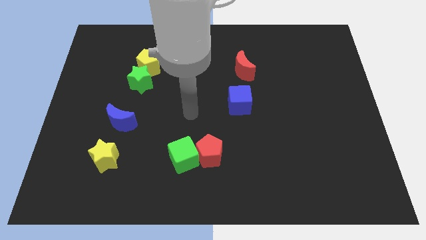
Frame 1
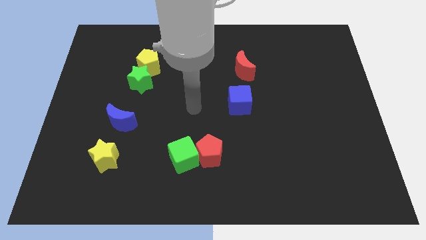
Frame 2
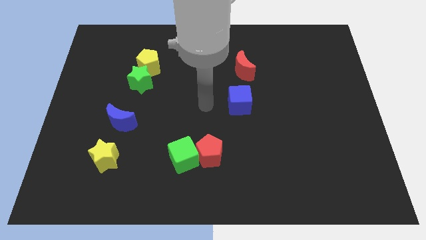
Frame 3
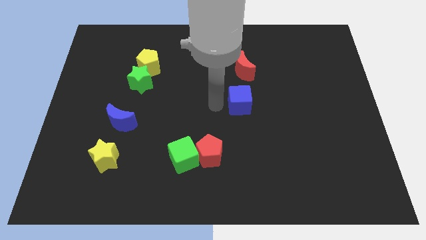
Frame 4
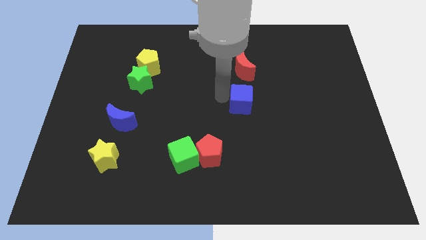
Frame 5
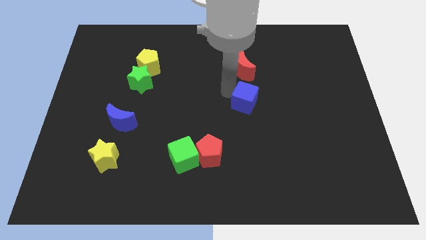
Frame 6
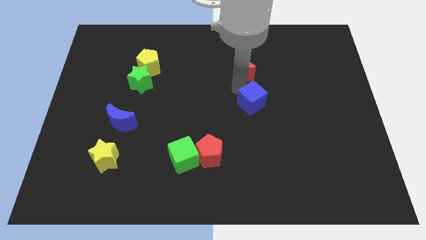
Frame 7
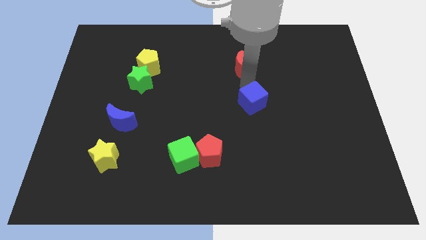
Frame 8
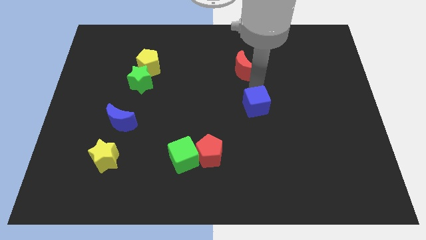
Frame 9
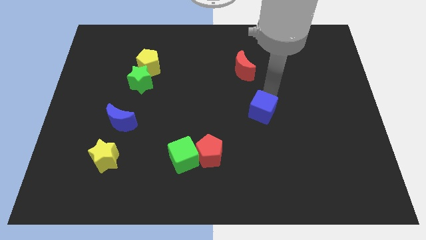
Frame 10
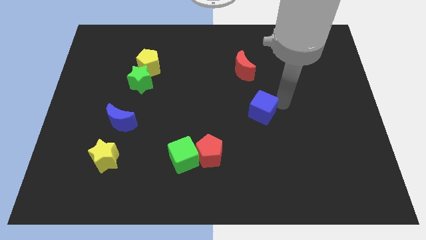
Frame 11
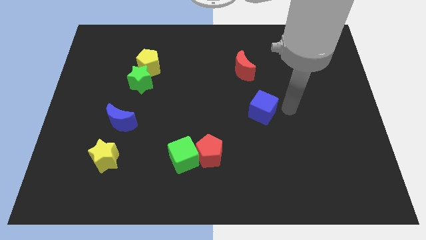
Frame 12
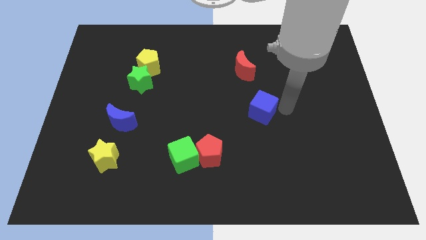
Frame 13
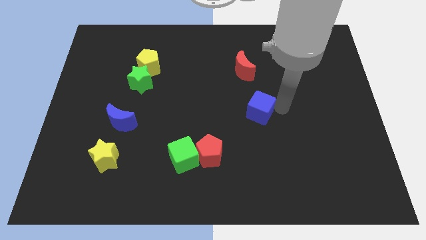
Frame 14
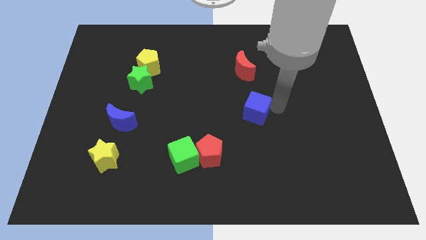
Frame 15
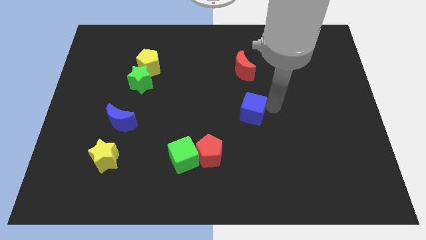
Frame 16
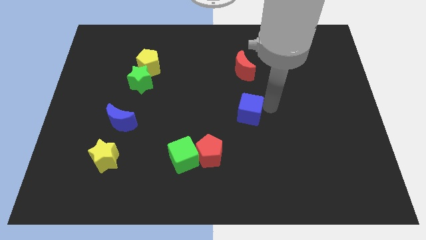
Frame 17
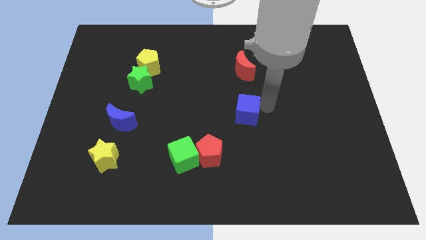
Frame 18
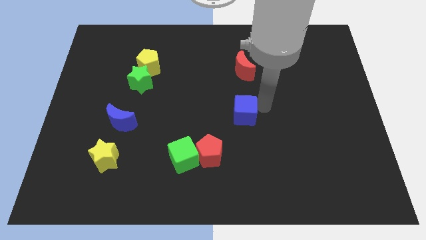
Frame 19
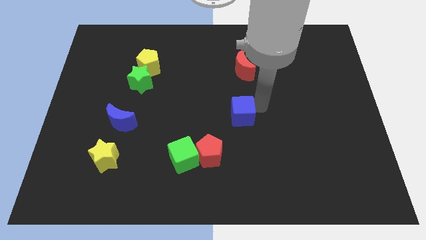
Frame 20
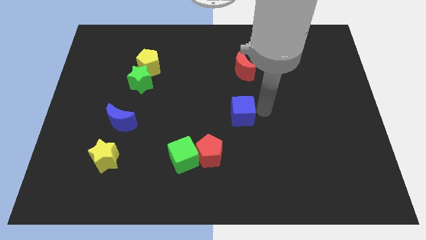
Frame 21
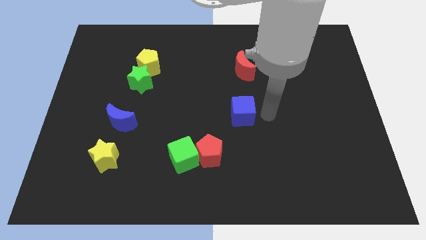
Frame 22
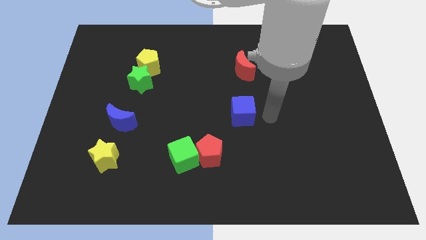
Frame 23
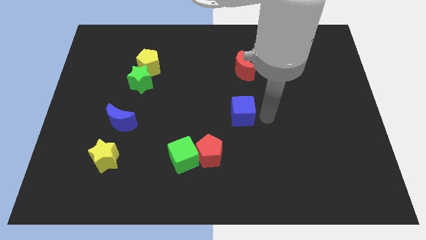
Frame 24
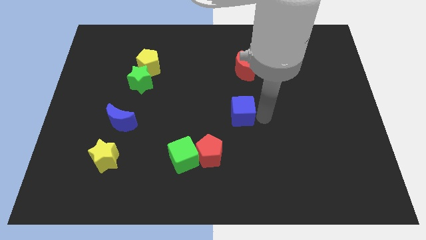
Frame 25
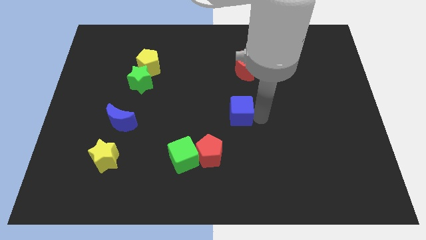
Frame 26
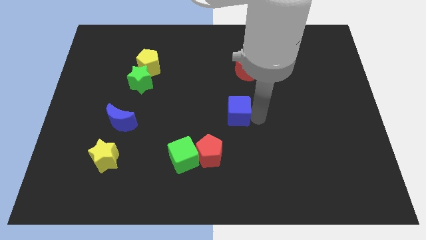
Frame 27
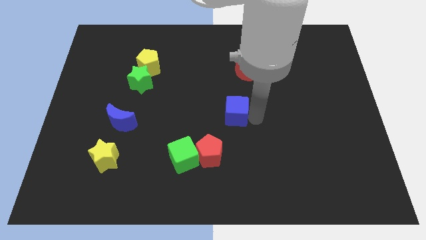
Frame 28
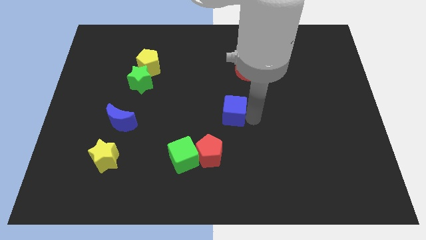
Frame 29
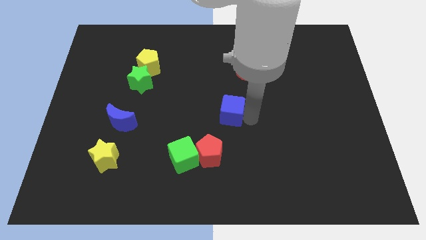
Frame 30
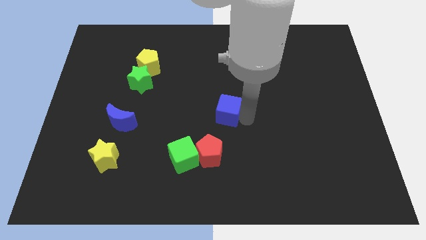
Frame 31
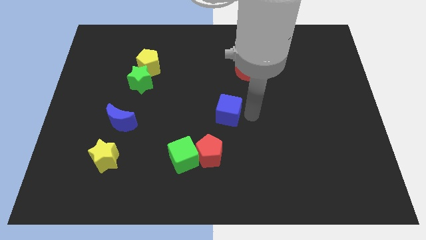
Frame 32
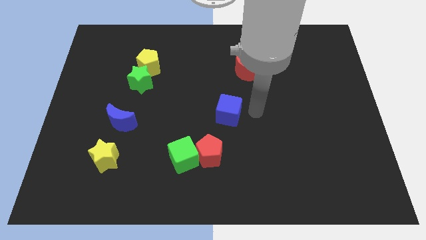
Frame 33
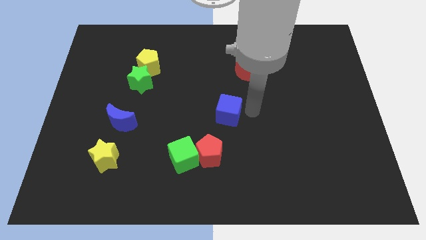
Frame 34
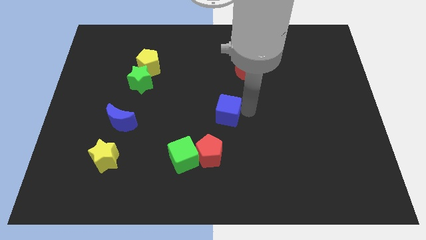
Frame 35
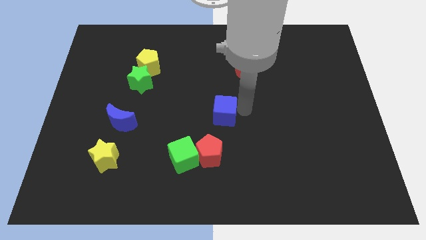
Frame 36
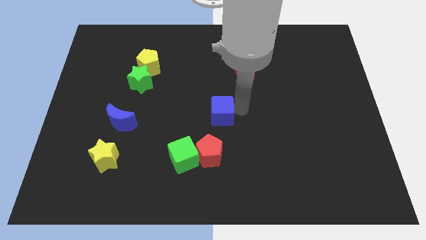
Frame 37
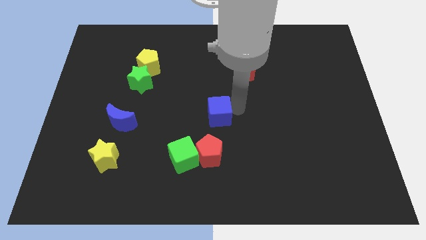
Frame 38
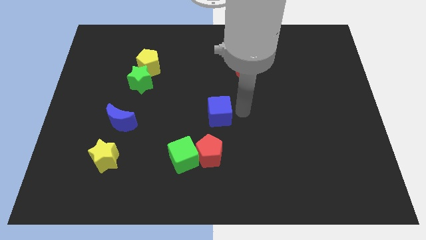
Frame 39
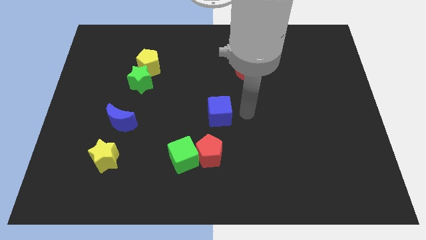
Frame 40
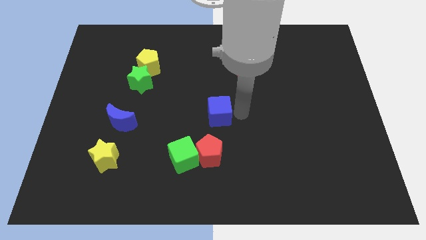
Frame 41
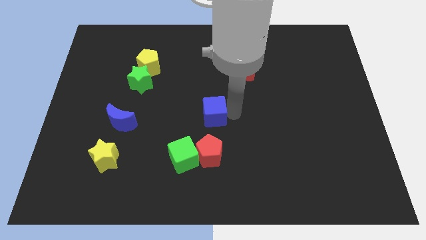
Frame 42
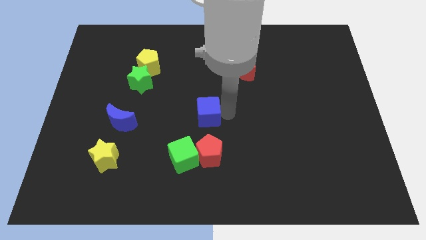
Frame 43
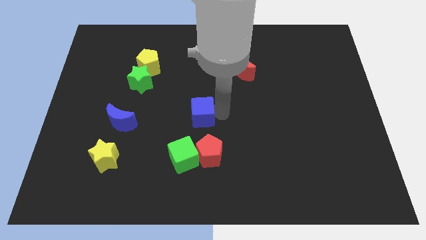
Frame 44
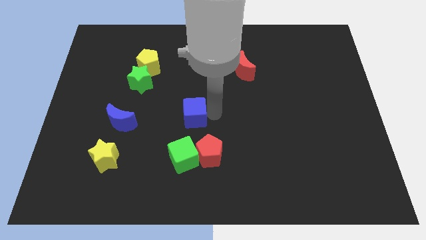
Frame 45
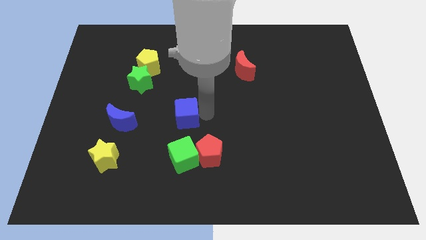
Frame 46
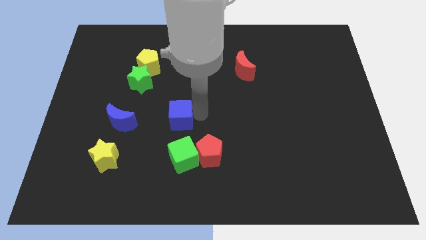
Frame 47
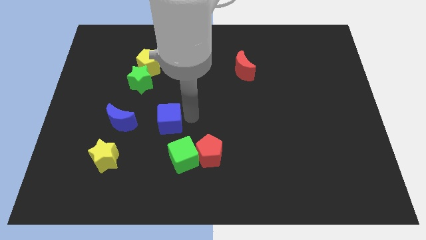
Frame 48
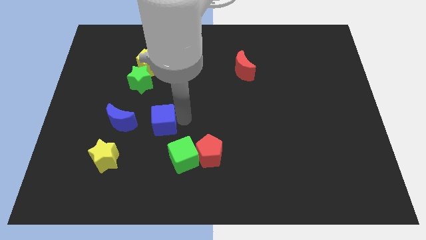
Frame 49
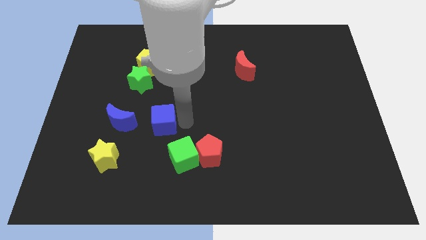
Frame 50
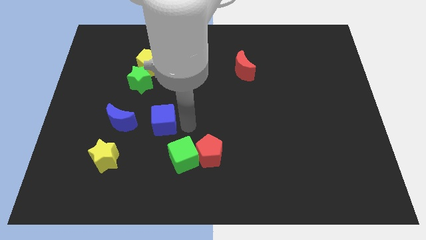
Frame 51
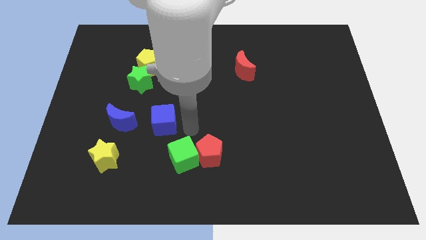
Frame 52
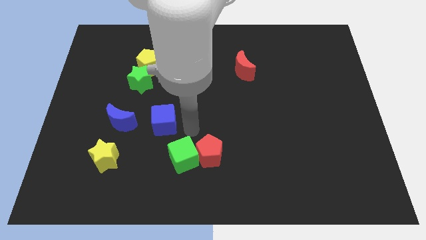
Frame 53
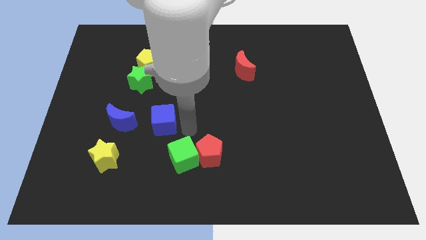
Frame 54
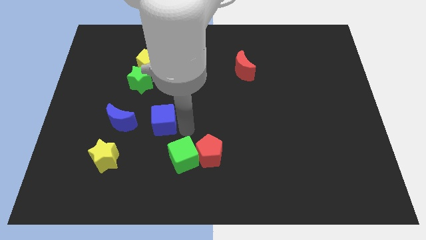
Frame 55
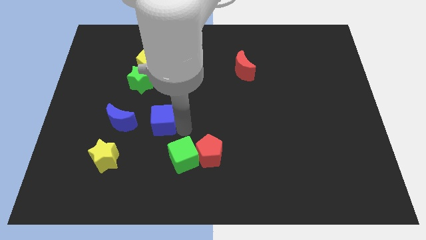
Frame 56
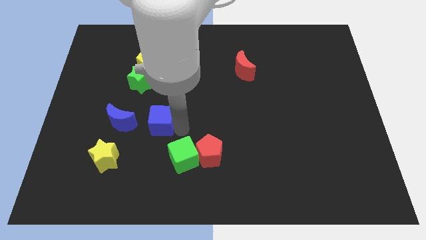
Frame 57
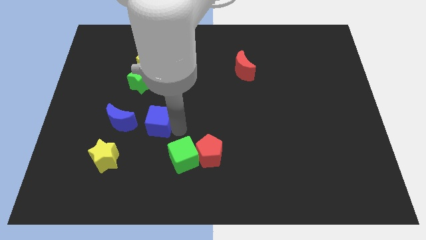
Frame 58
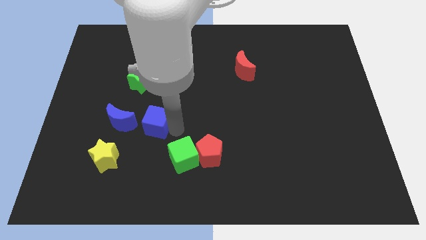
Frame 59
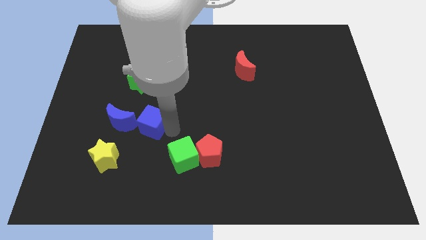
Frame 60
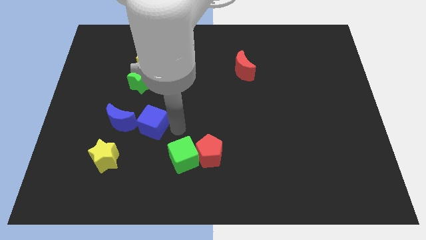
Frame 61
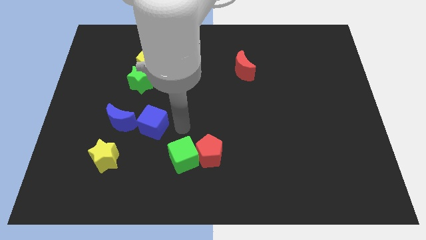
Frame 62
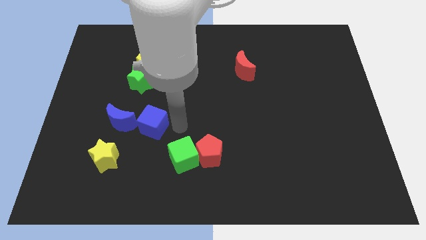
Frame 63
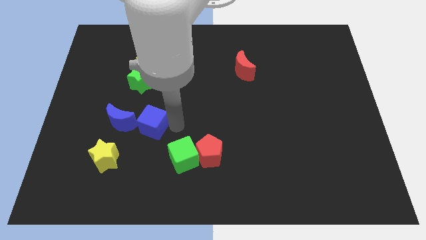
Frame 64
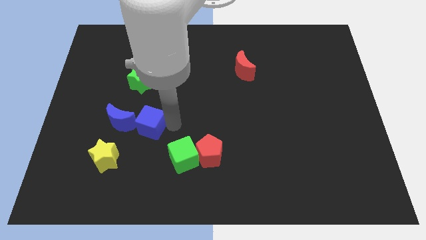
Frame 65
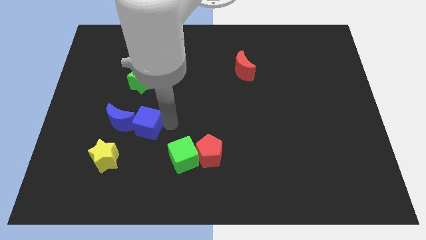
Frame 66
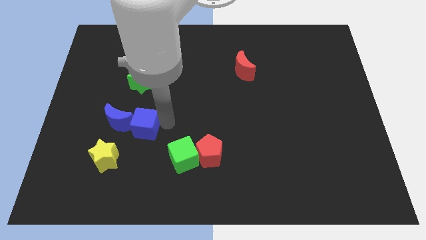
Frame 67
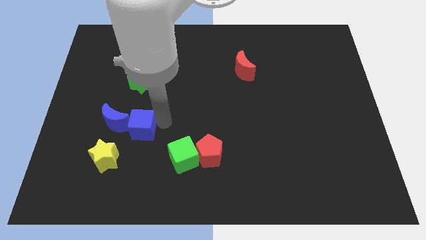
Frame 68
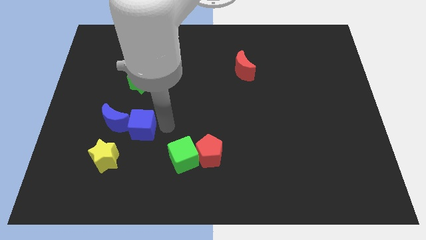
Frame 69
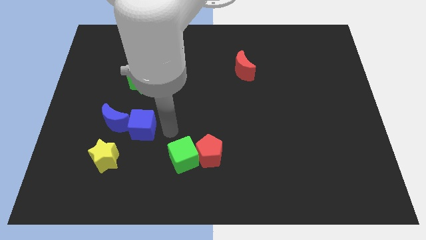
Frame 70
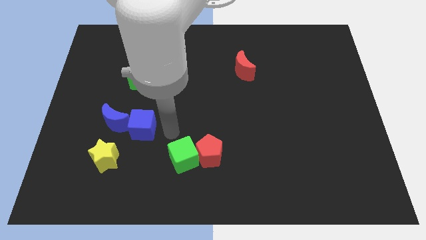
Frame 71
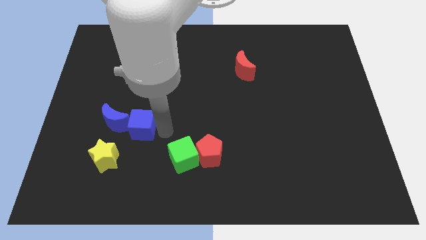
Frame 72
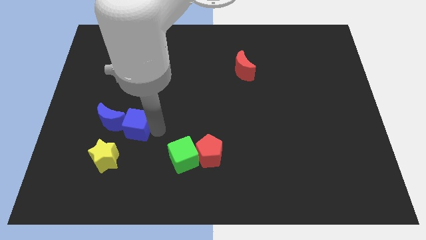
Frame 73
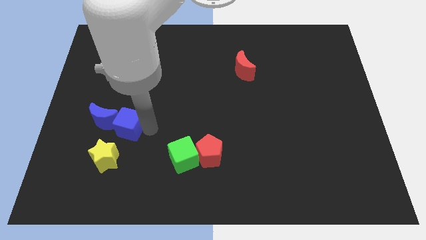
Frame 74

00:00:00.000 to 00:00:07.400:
put the blue cube to the blue moon
